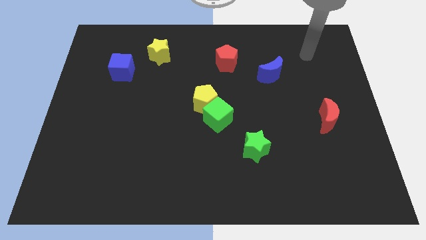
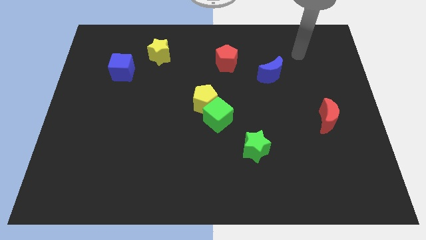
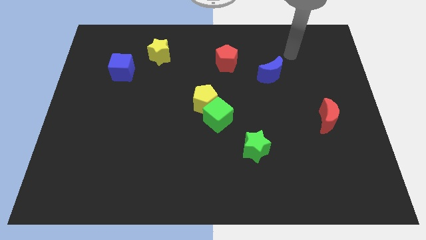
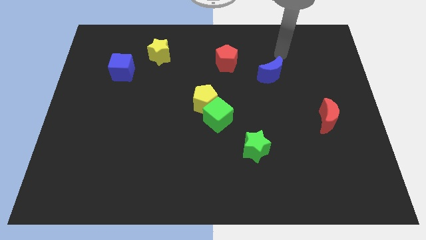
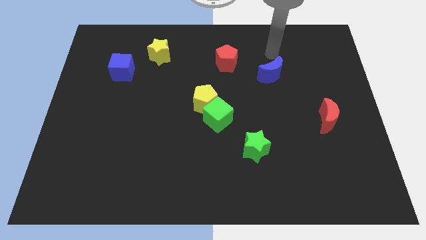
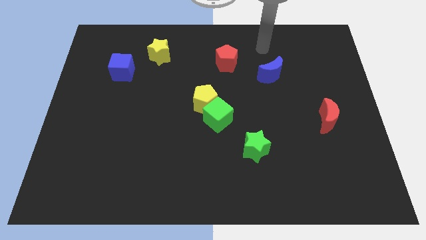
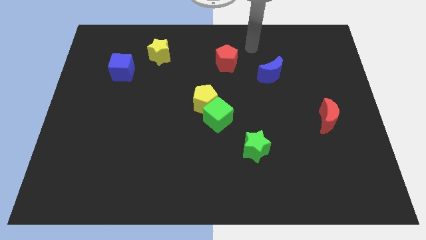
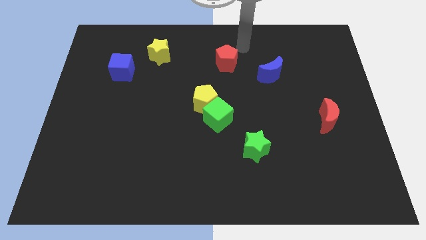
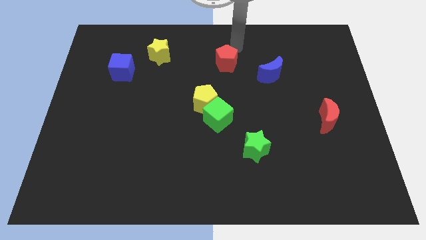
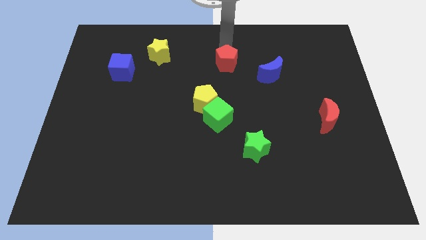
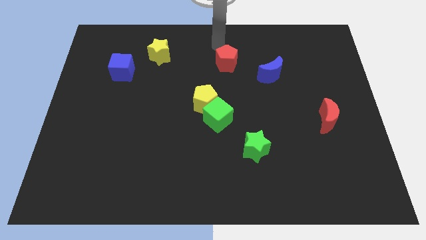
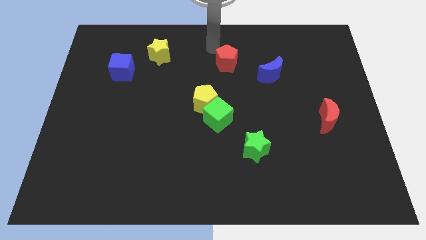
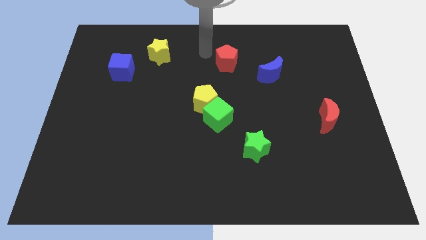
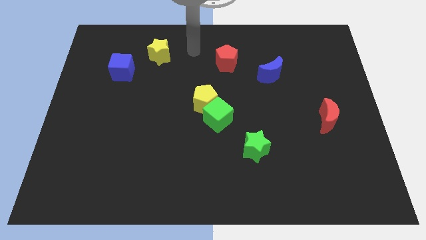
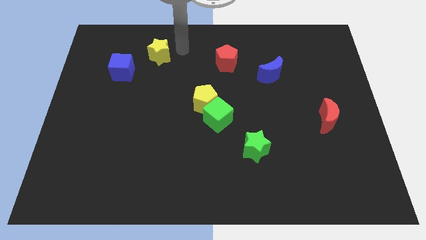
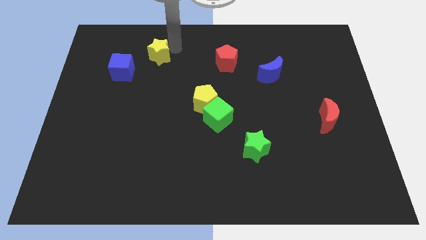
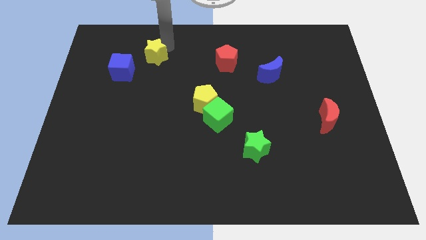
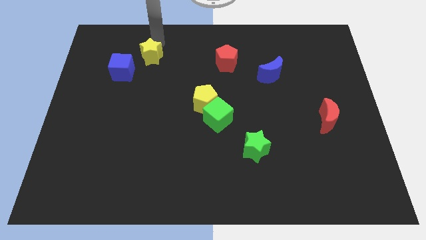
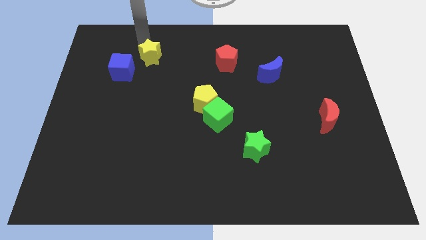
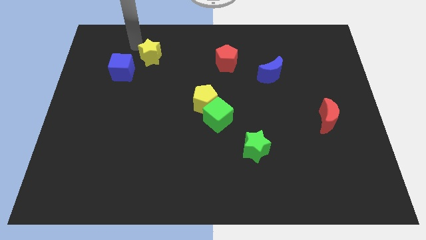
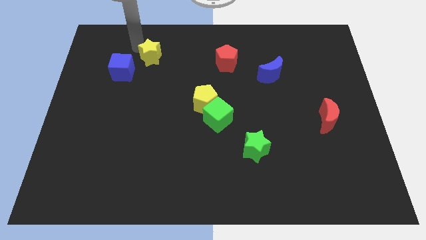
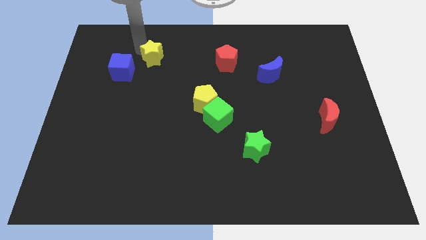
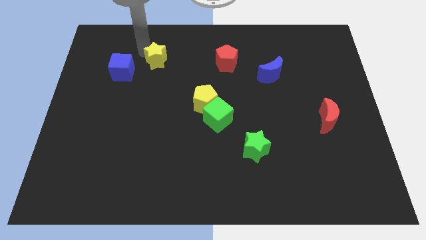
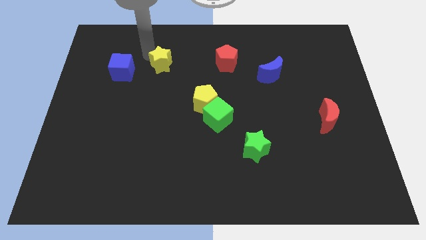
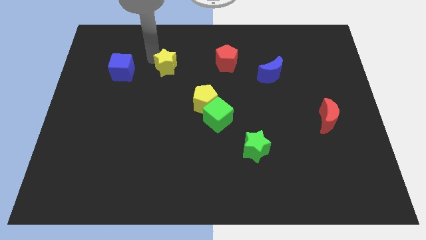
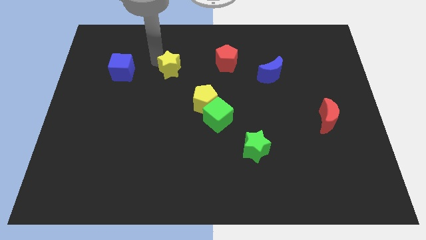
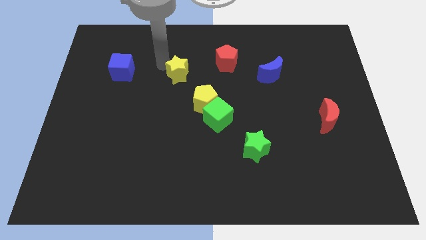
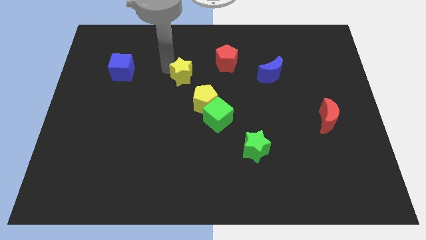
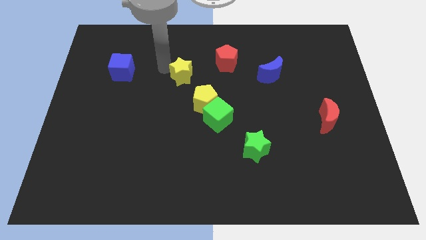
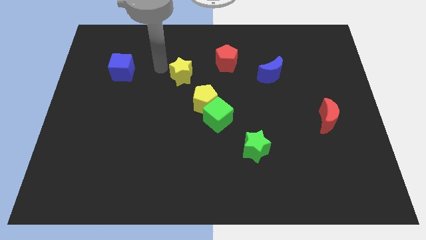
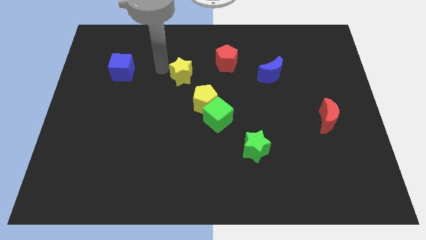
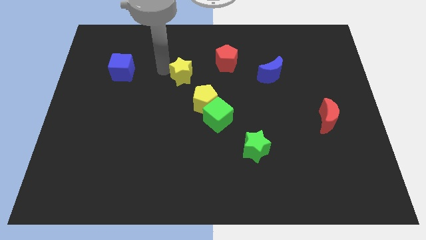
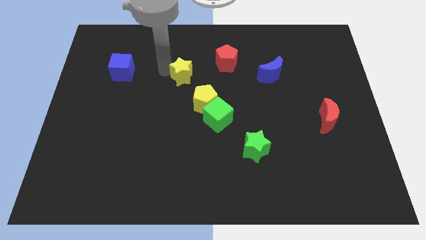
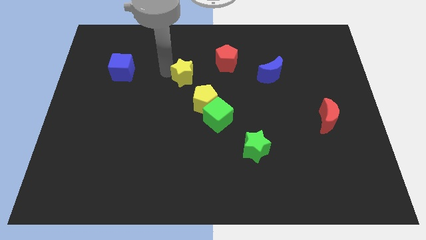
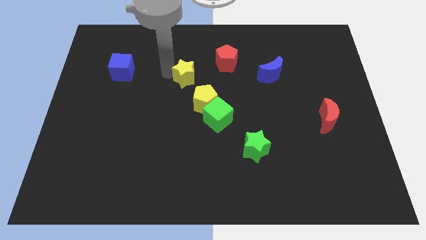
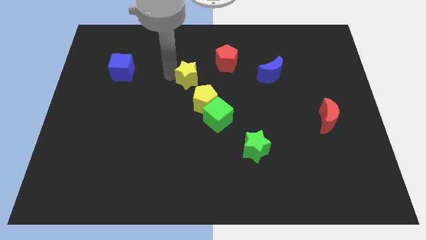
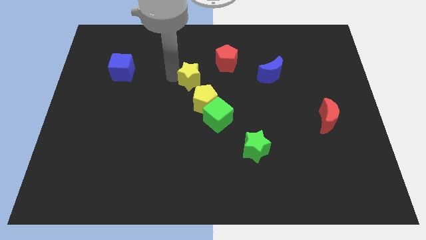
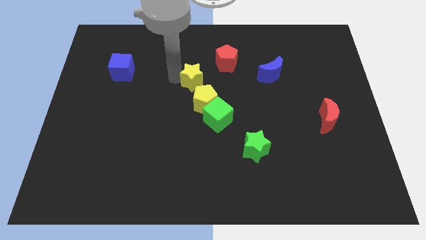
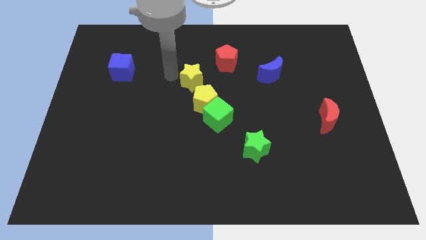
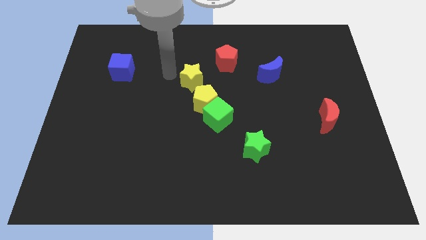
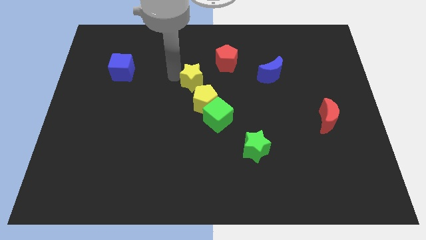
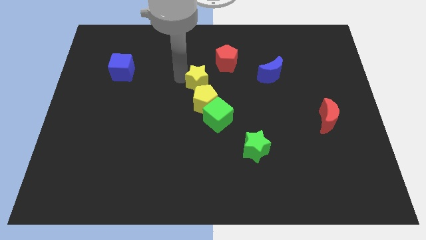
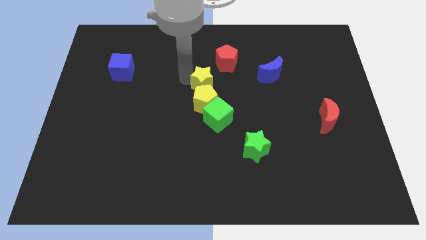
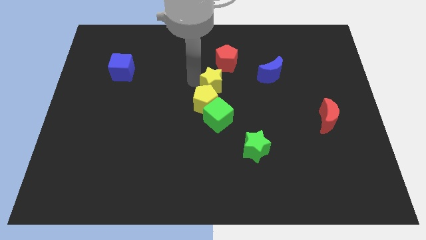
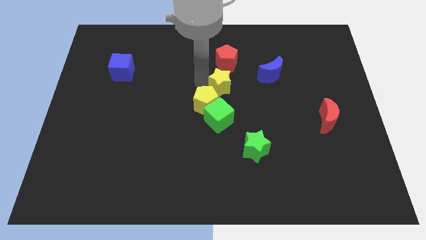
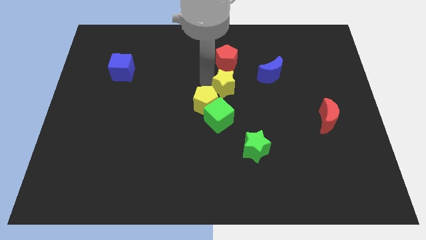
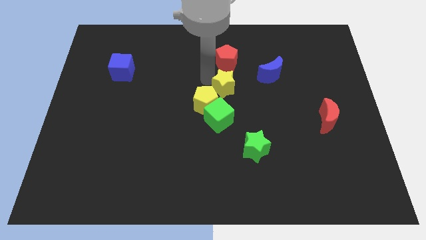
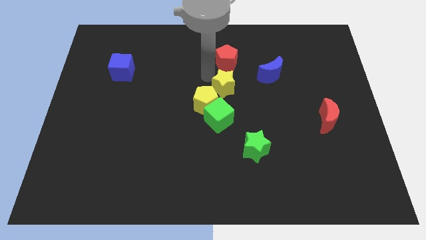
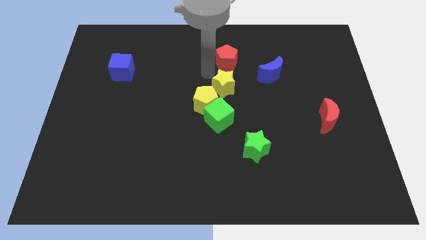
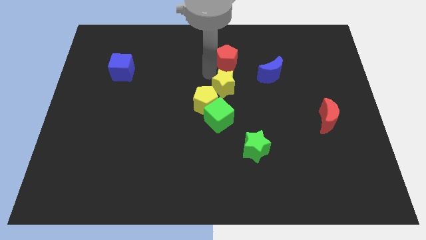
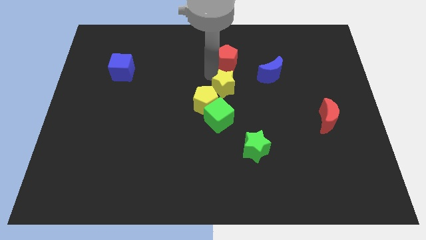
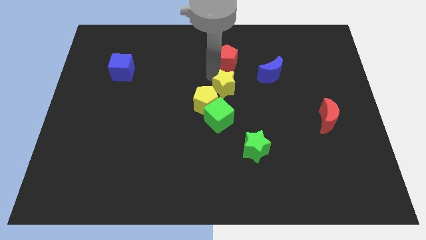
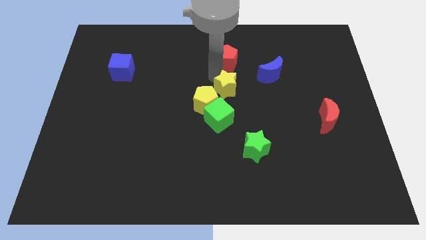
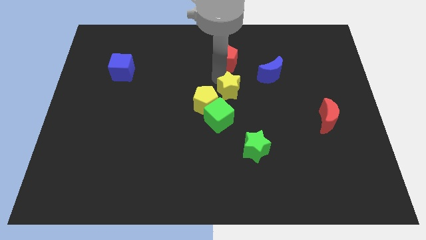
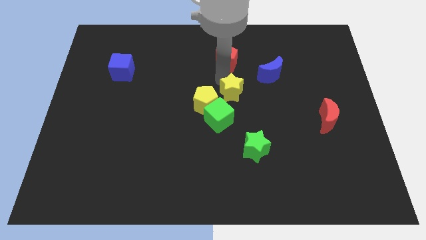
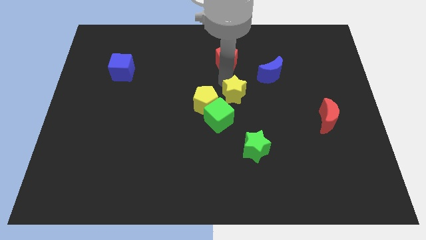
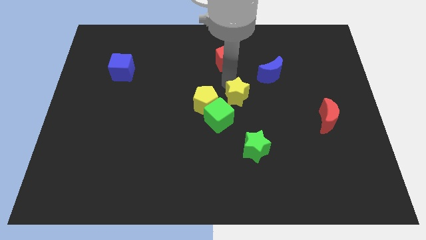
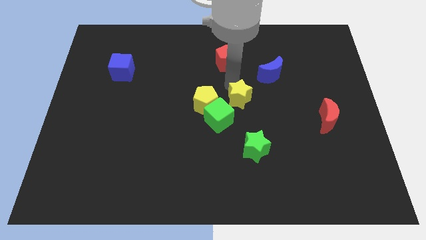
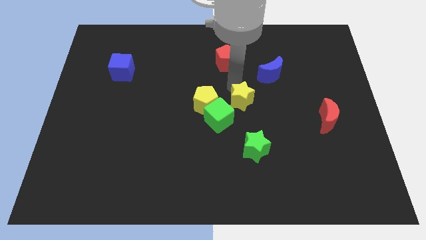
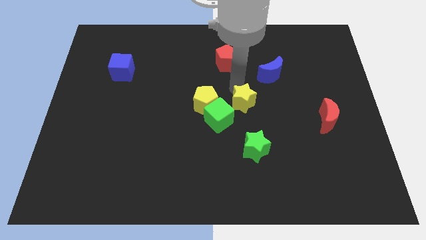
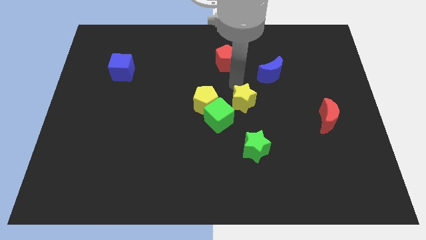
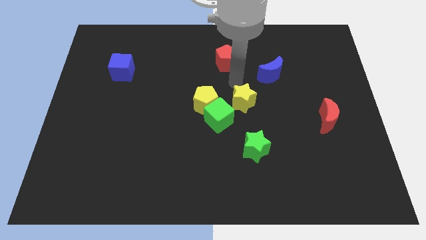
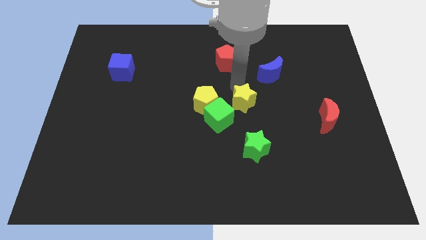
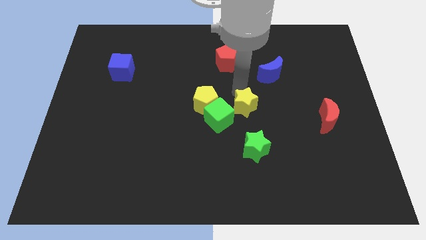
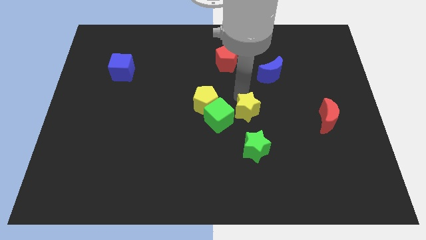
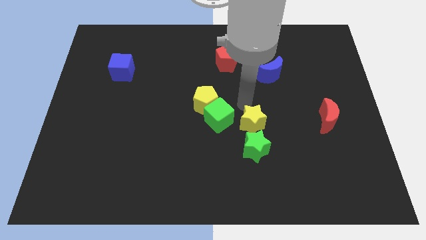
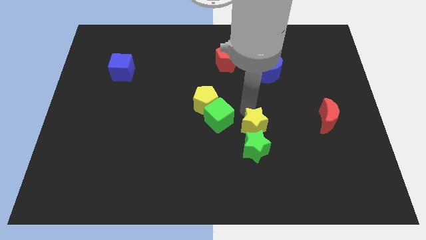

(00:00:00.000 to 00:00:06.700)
put the yellow star to the green star

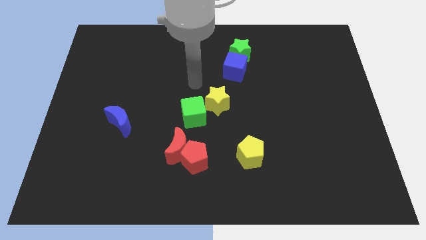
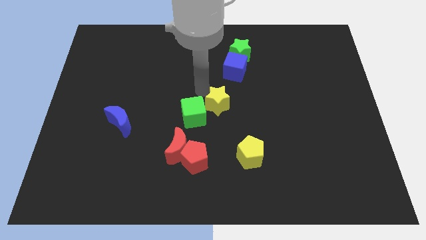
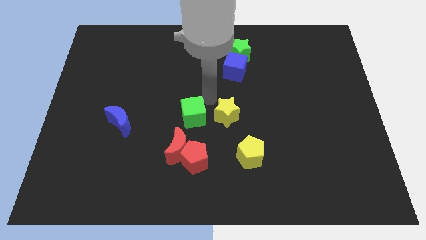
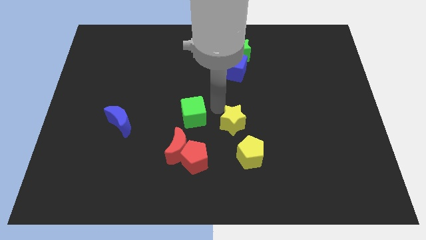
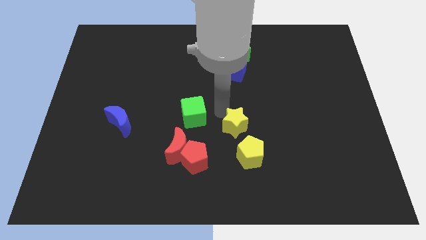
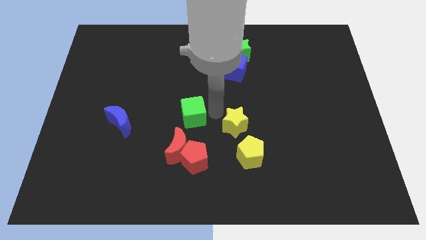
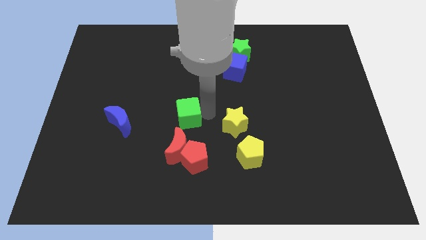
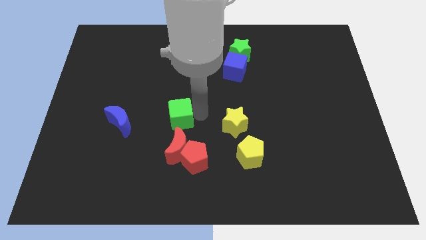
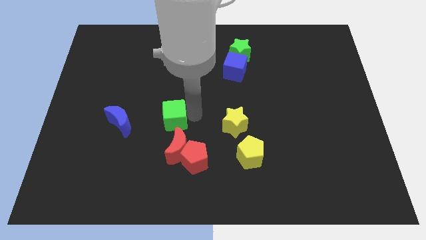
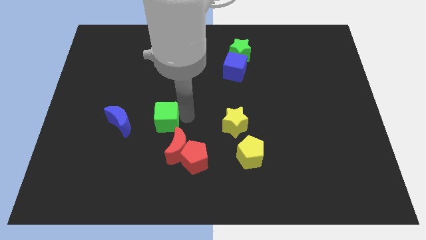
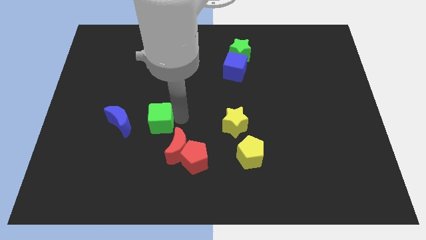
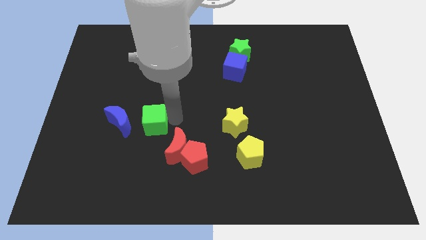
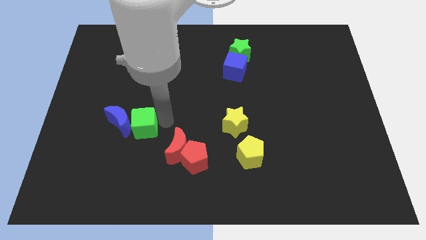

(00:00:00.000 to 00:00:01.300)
put the green cube towards the blue moon
